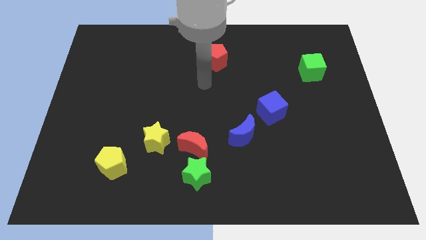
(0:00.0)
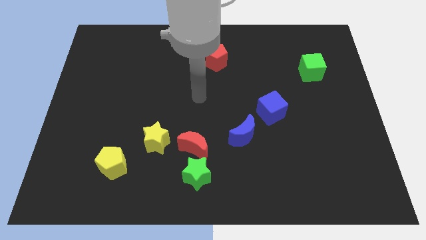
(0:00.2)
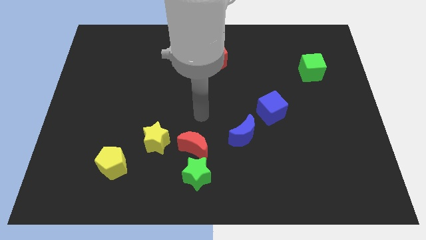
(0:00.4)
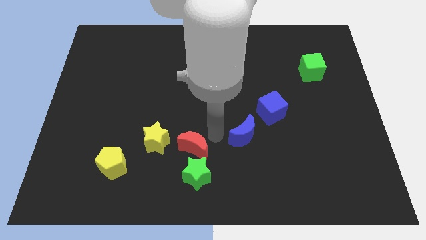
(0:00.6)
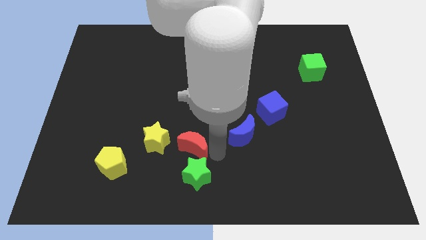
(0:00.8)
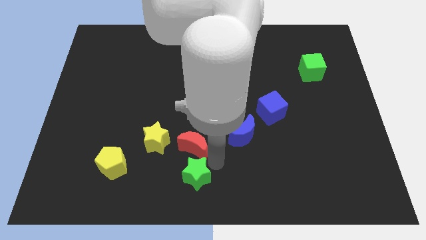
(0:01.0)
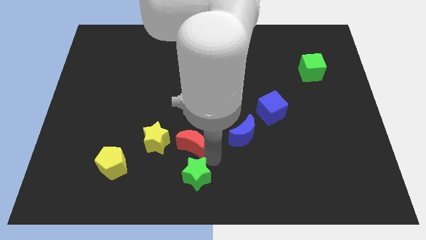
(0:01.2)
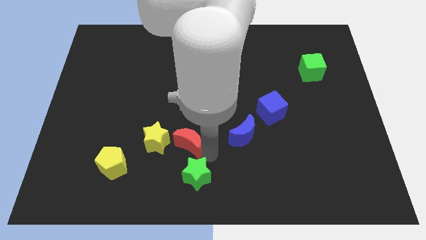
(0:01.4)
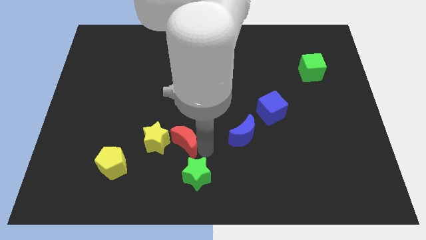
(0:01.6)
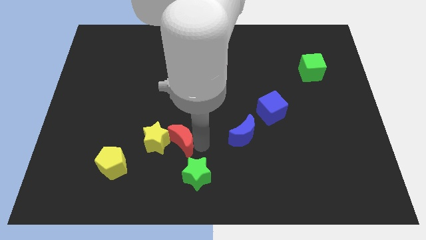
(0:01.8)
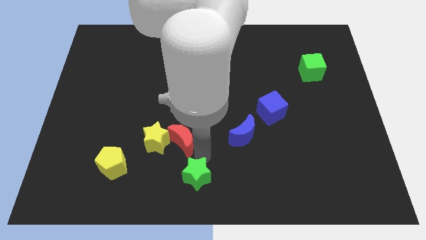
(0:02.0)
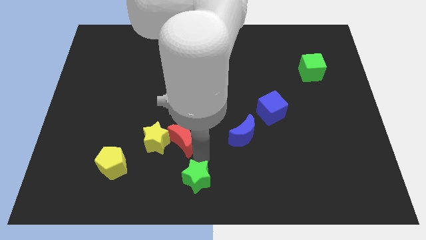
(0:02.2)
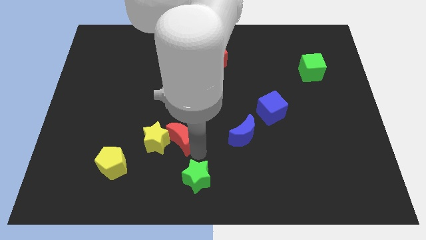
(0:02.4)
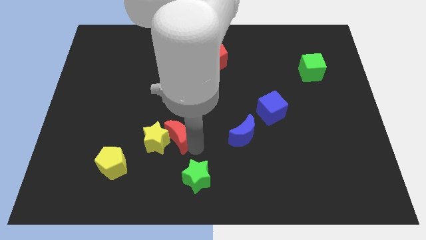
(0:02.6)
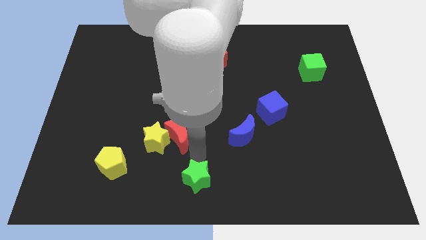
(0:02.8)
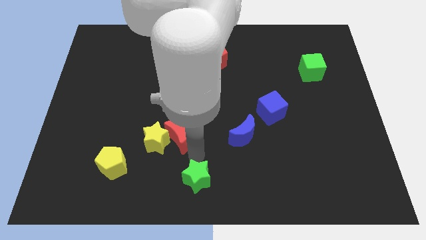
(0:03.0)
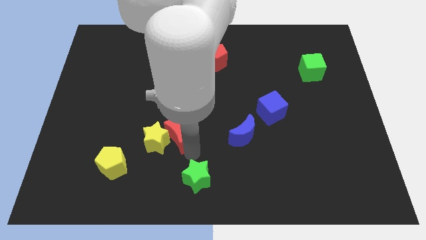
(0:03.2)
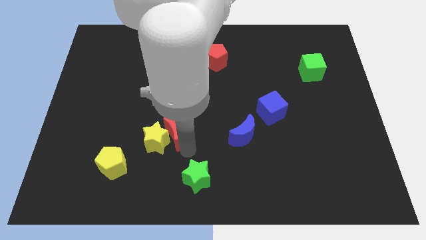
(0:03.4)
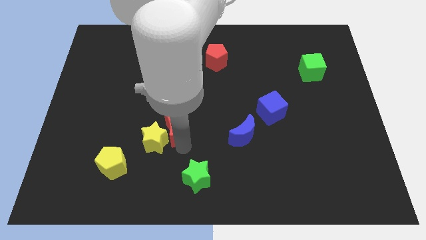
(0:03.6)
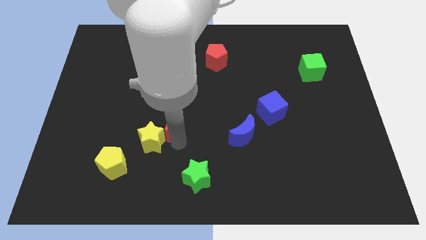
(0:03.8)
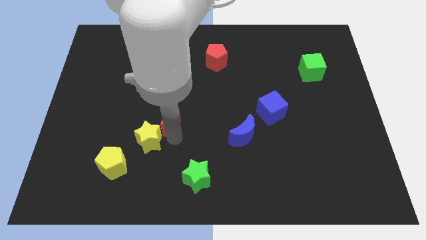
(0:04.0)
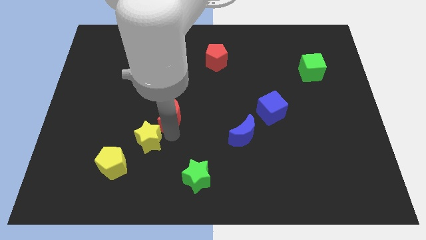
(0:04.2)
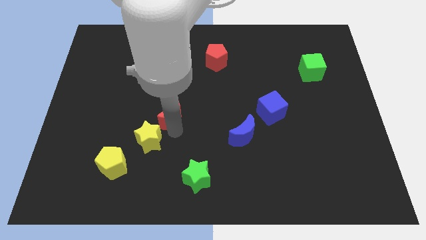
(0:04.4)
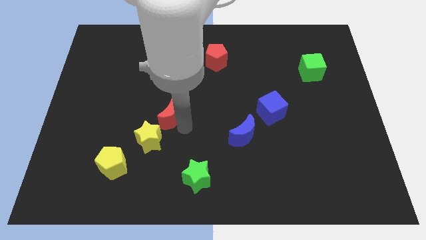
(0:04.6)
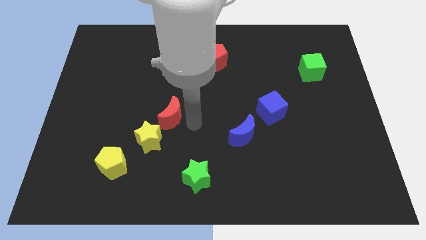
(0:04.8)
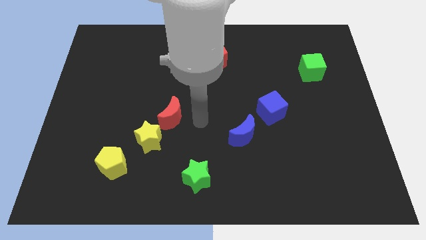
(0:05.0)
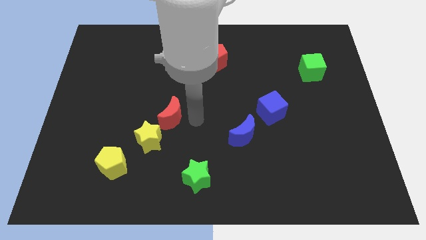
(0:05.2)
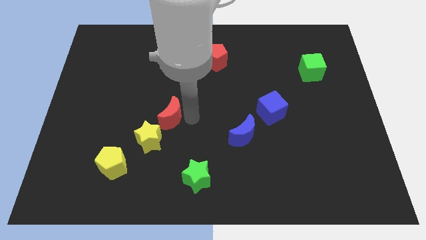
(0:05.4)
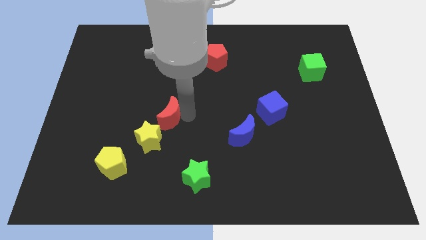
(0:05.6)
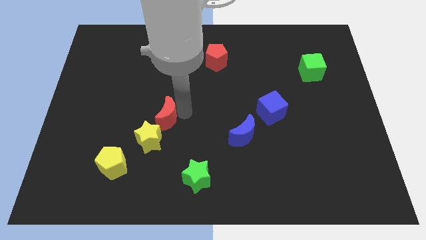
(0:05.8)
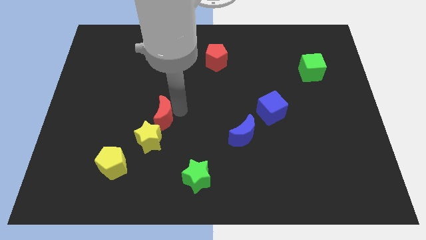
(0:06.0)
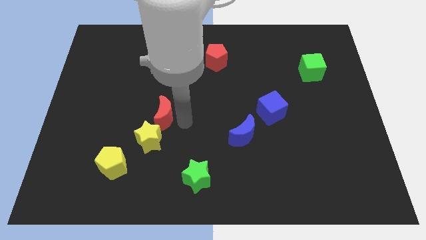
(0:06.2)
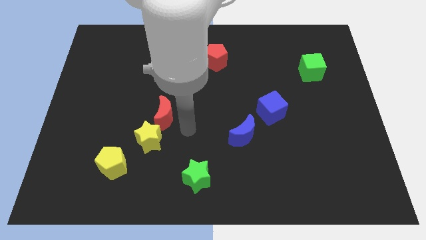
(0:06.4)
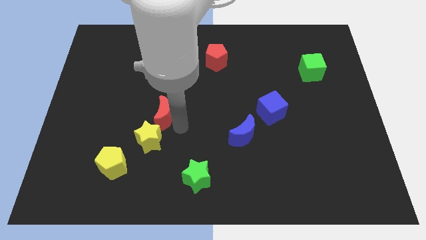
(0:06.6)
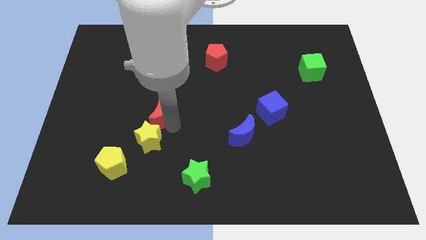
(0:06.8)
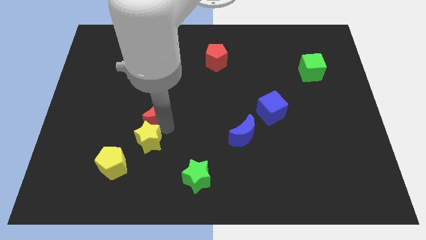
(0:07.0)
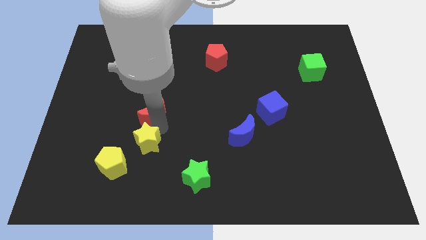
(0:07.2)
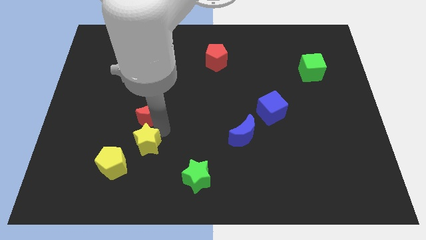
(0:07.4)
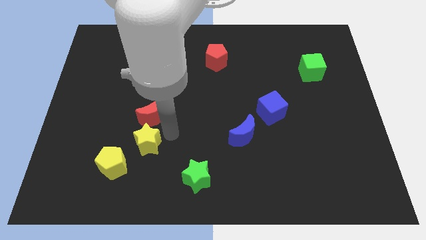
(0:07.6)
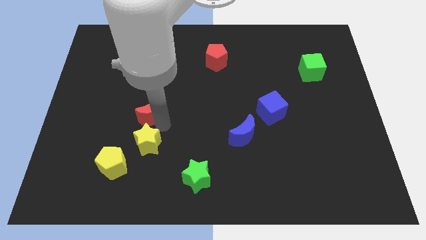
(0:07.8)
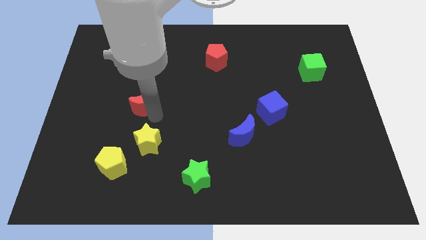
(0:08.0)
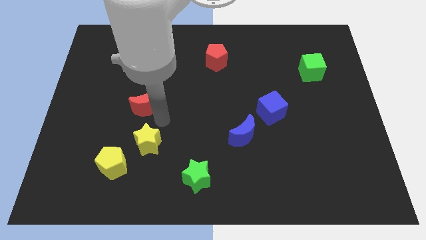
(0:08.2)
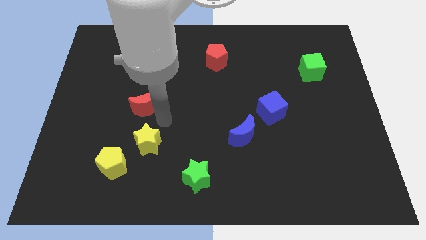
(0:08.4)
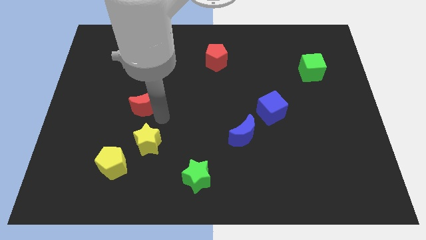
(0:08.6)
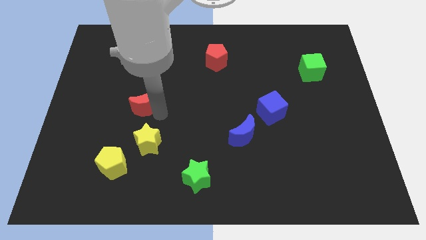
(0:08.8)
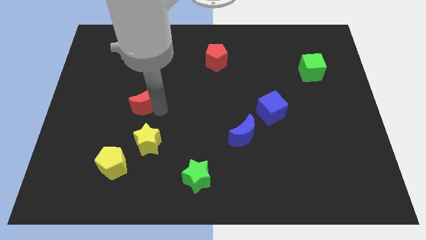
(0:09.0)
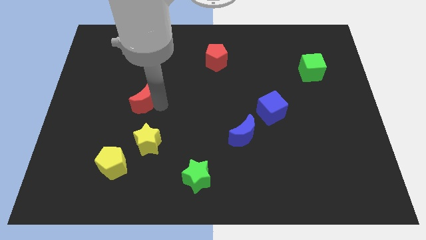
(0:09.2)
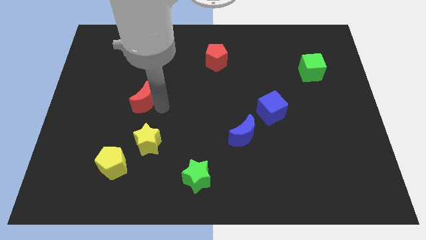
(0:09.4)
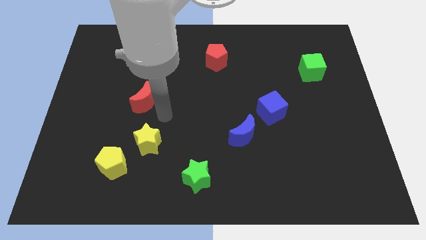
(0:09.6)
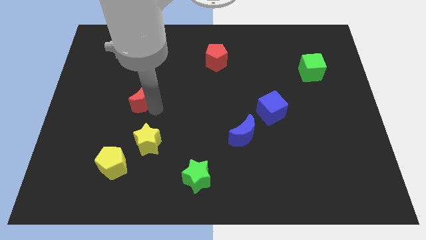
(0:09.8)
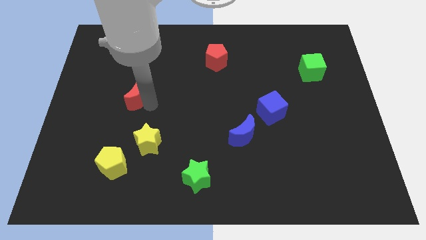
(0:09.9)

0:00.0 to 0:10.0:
move the red moon up and to the left diagonally

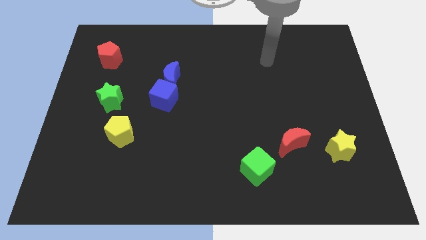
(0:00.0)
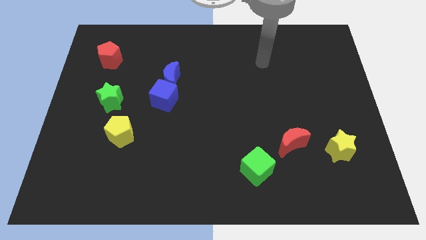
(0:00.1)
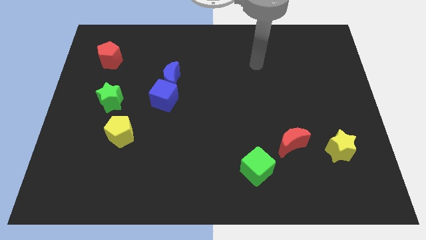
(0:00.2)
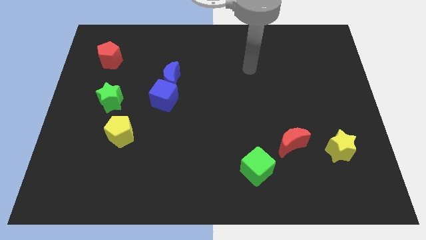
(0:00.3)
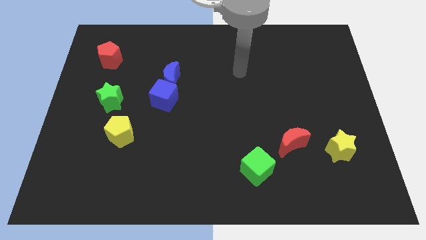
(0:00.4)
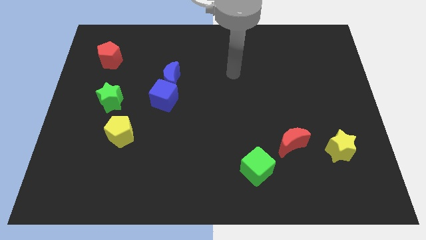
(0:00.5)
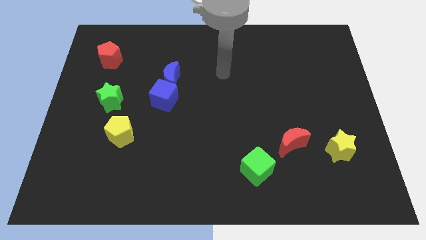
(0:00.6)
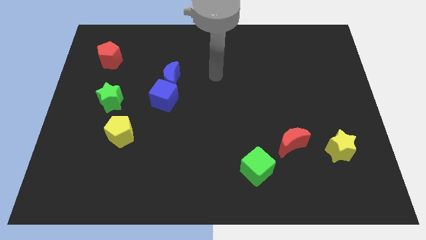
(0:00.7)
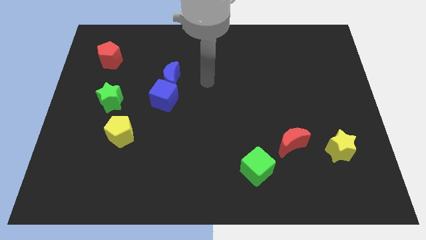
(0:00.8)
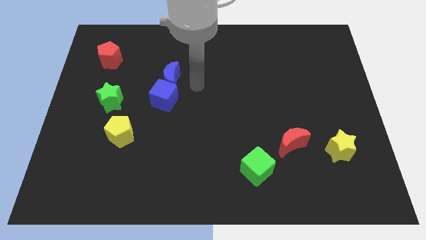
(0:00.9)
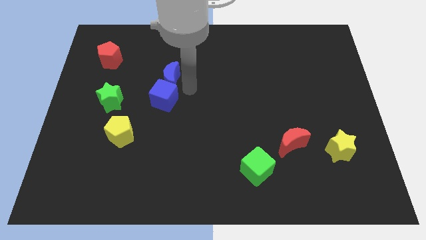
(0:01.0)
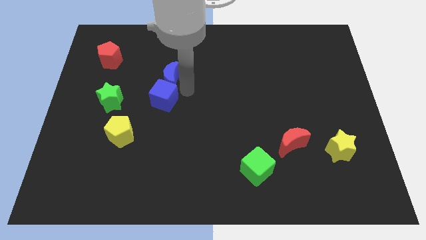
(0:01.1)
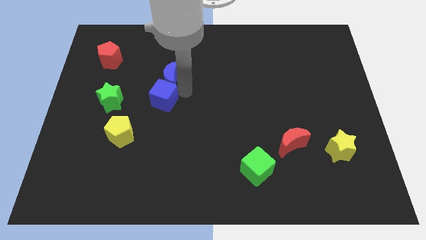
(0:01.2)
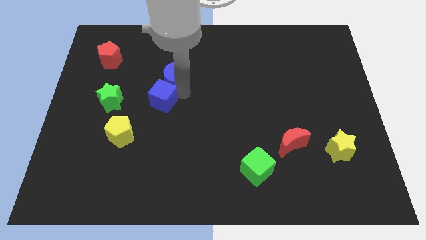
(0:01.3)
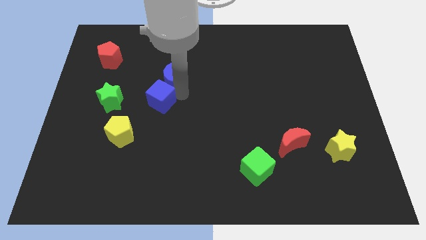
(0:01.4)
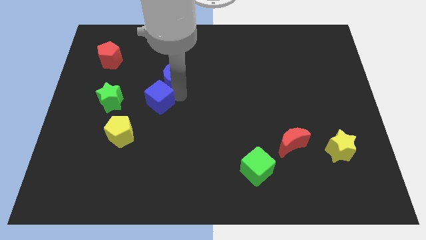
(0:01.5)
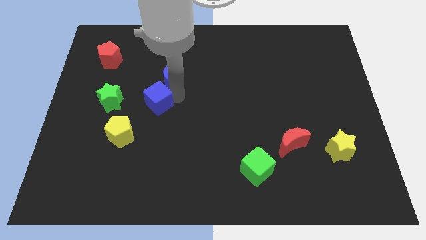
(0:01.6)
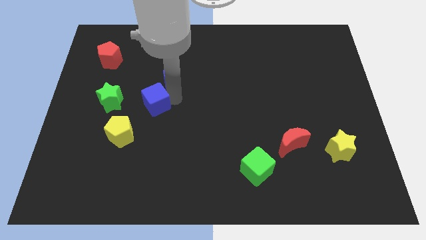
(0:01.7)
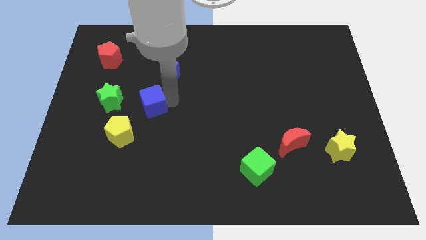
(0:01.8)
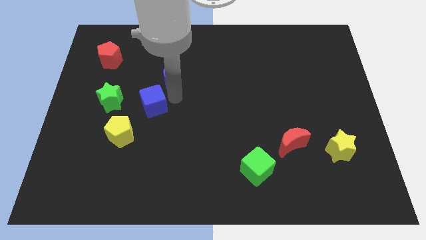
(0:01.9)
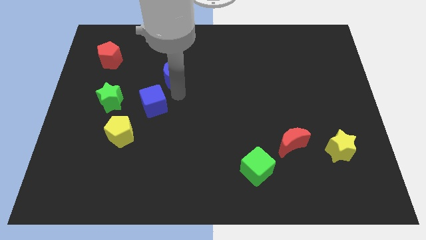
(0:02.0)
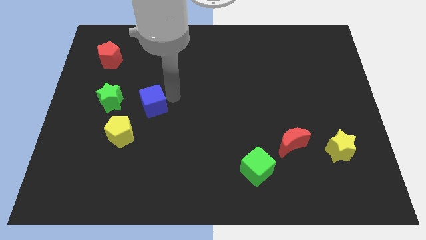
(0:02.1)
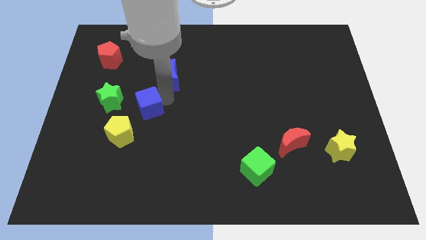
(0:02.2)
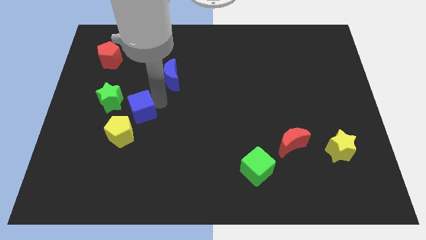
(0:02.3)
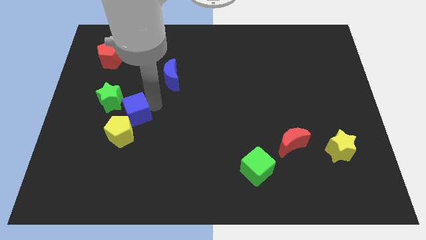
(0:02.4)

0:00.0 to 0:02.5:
move the blue cube somewhat downwards and then left
